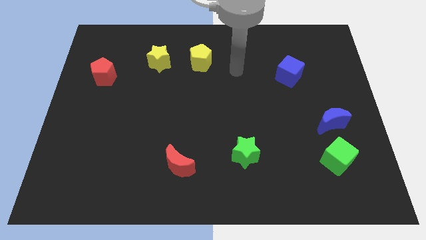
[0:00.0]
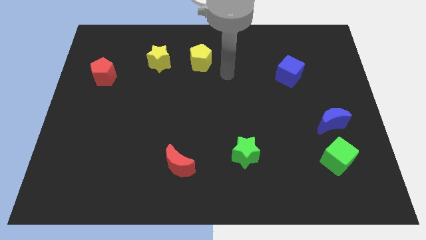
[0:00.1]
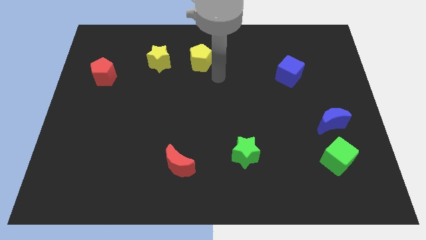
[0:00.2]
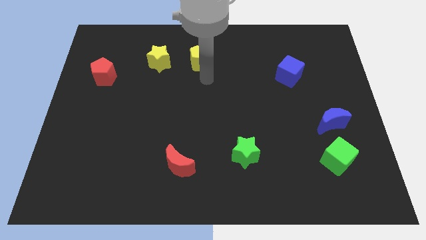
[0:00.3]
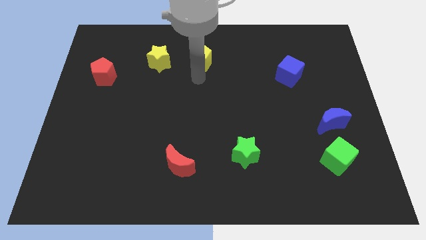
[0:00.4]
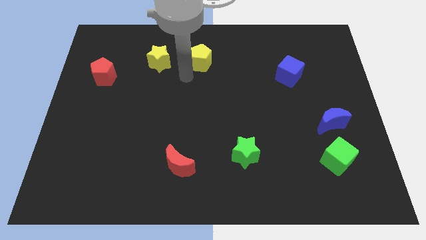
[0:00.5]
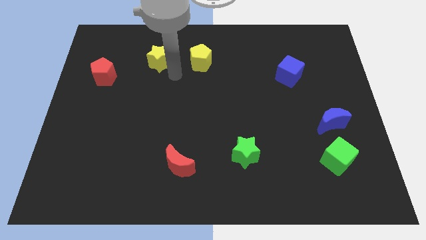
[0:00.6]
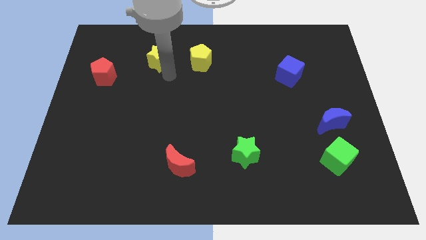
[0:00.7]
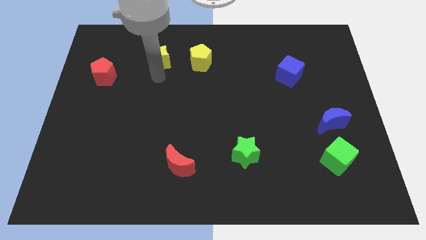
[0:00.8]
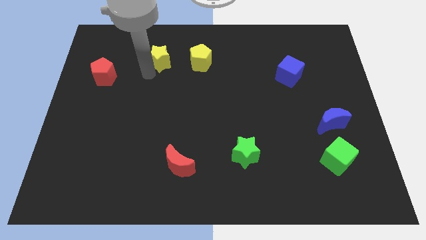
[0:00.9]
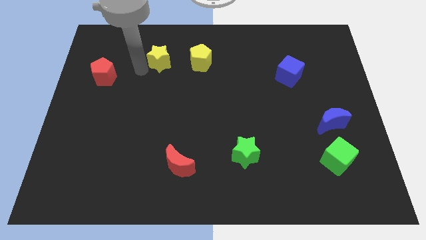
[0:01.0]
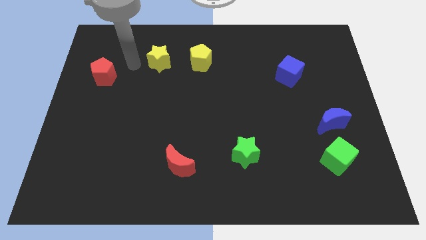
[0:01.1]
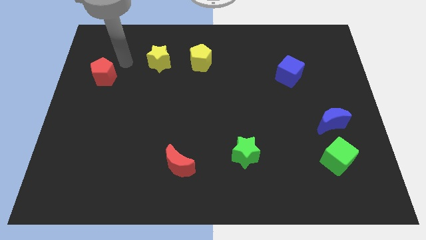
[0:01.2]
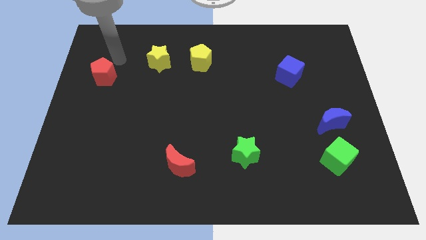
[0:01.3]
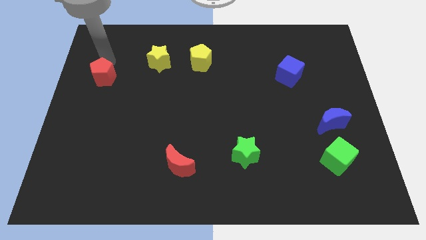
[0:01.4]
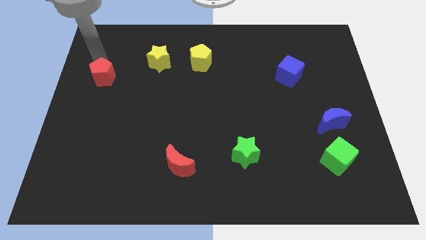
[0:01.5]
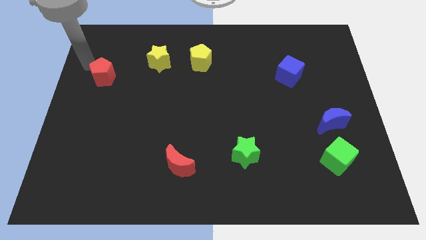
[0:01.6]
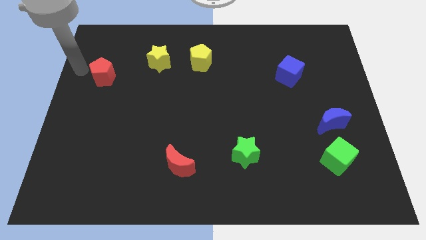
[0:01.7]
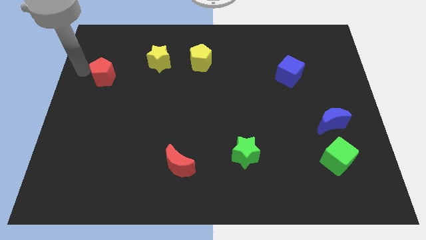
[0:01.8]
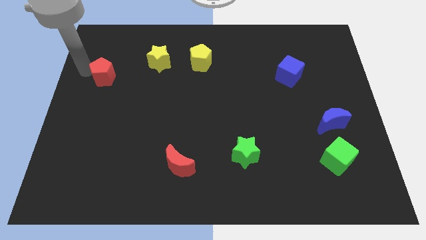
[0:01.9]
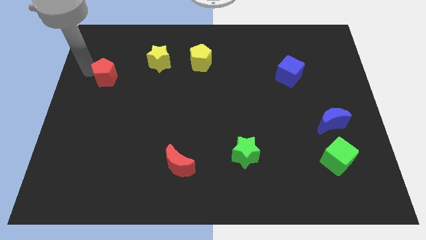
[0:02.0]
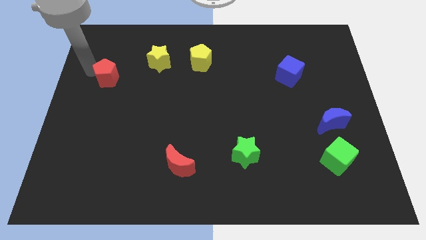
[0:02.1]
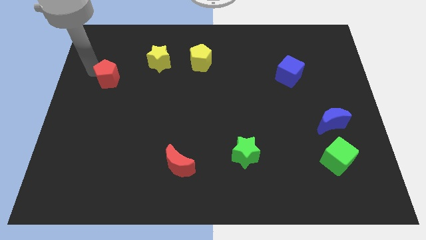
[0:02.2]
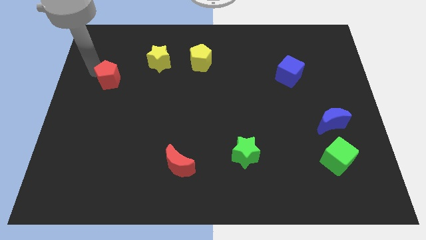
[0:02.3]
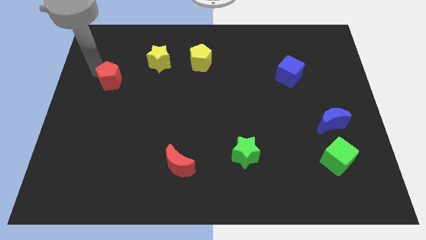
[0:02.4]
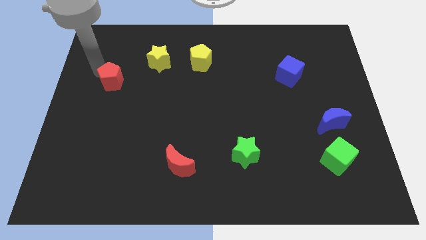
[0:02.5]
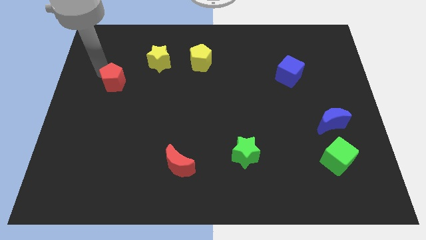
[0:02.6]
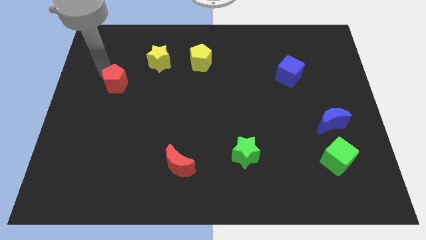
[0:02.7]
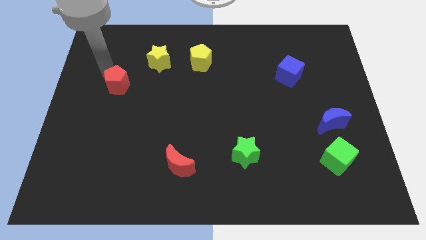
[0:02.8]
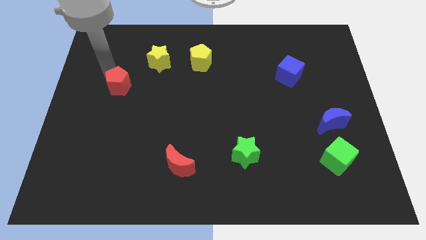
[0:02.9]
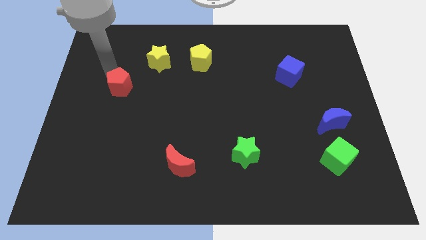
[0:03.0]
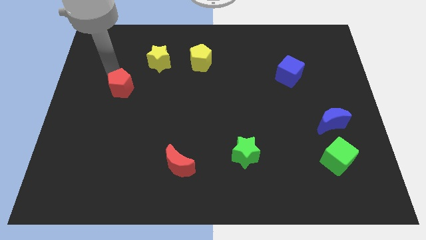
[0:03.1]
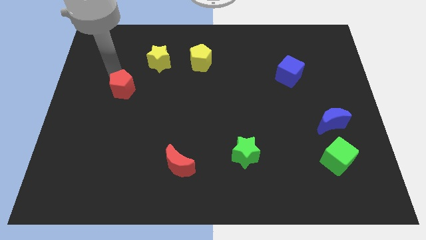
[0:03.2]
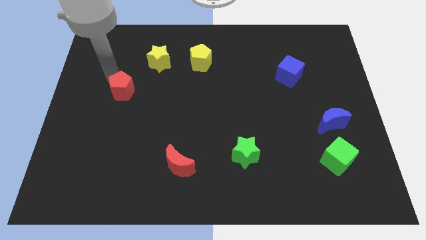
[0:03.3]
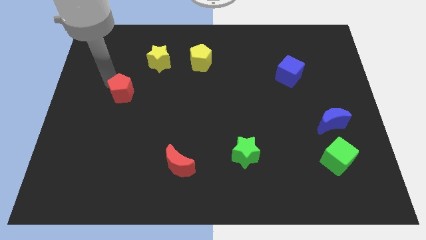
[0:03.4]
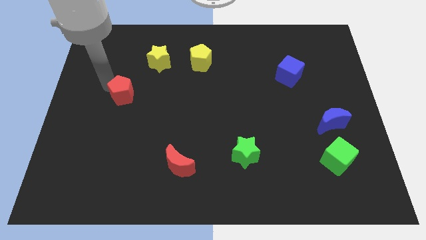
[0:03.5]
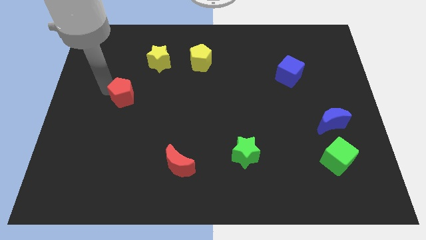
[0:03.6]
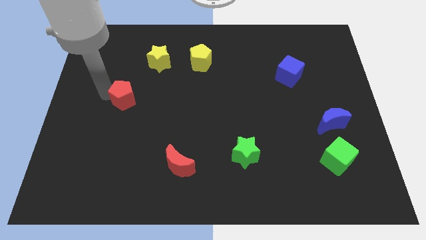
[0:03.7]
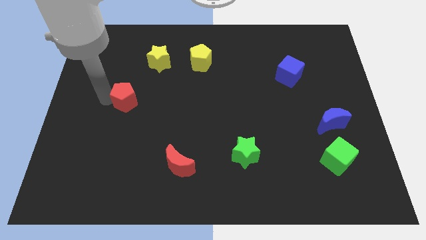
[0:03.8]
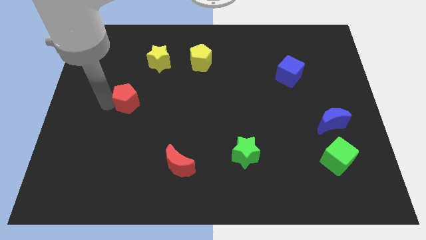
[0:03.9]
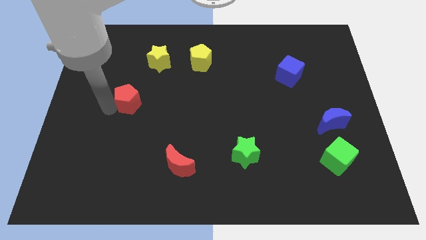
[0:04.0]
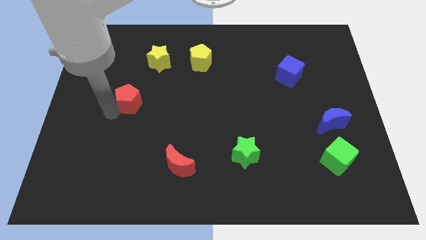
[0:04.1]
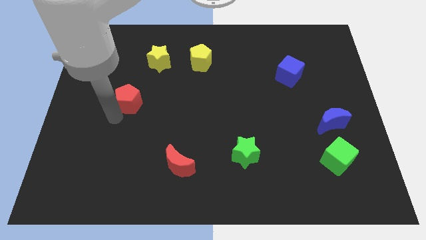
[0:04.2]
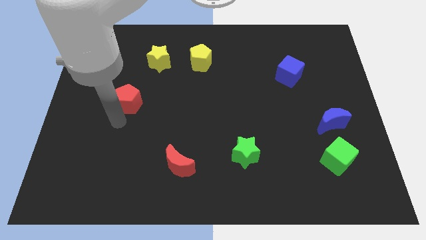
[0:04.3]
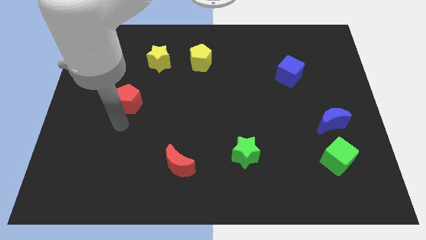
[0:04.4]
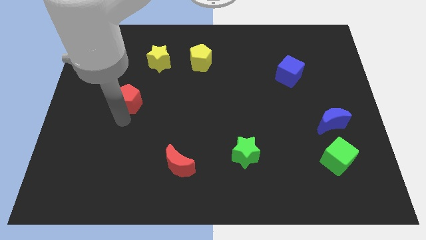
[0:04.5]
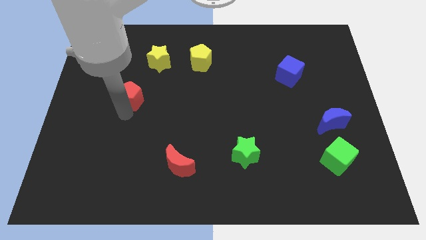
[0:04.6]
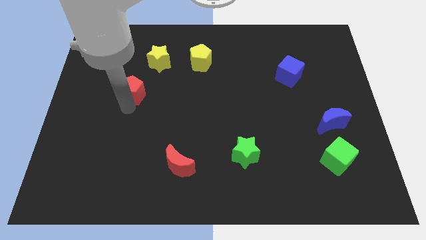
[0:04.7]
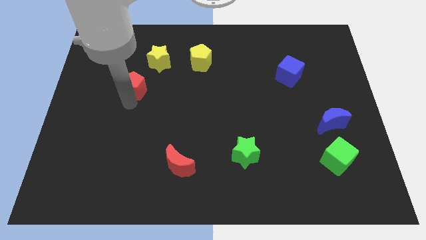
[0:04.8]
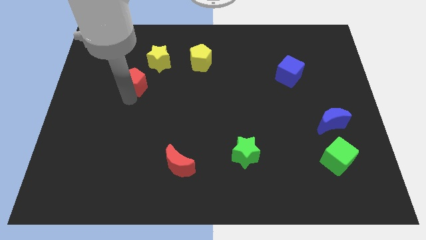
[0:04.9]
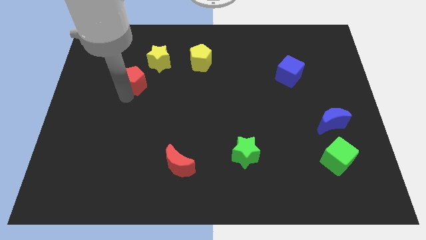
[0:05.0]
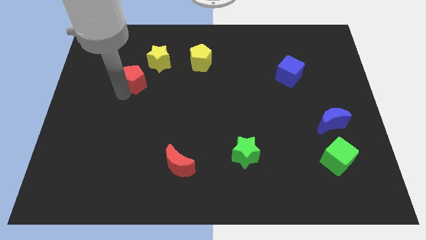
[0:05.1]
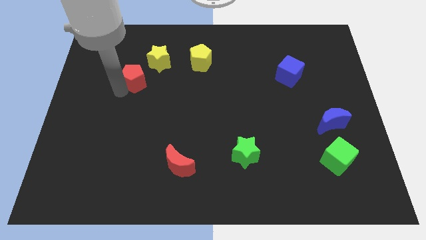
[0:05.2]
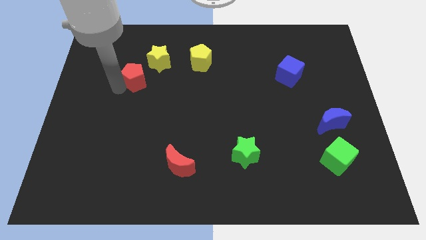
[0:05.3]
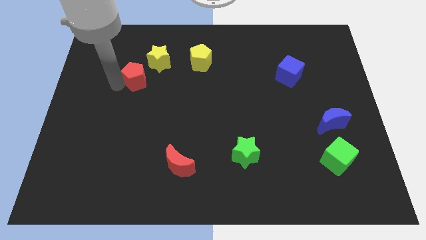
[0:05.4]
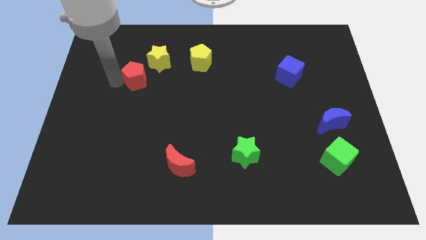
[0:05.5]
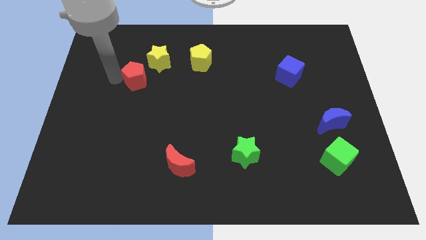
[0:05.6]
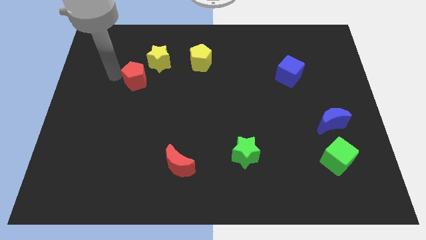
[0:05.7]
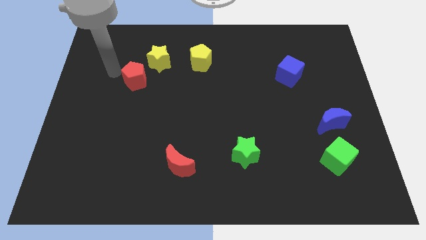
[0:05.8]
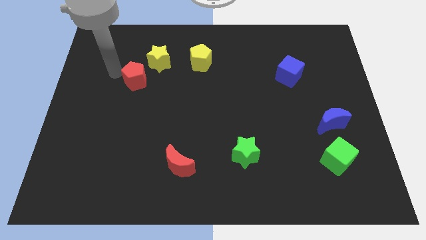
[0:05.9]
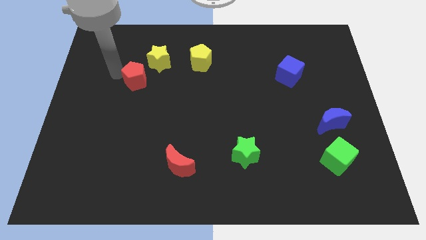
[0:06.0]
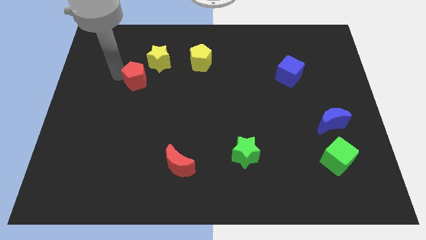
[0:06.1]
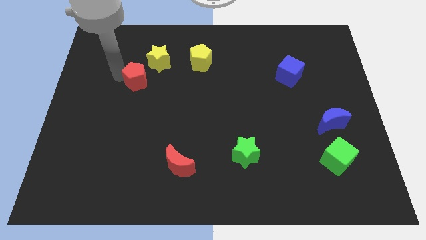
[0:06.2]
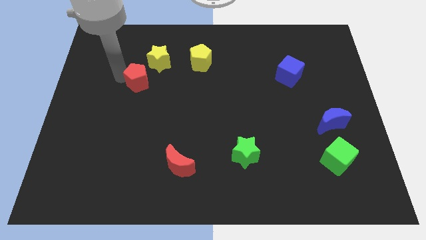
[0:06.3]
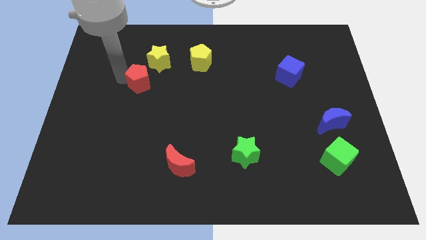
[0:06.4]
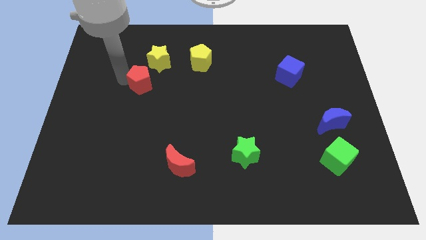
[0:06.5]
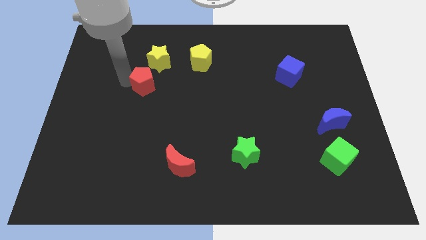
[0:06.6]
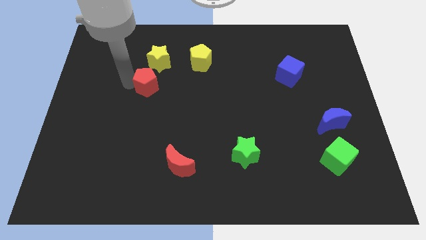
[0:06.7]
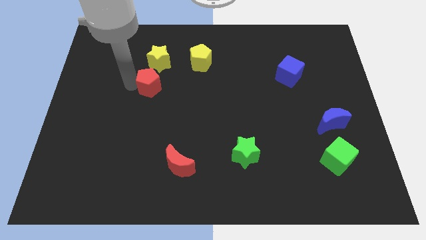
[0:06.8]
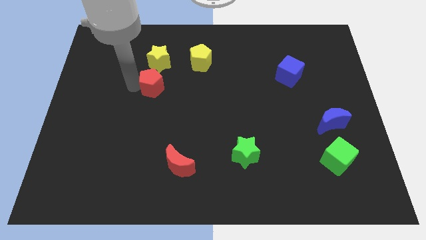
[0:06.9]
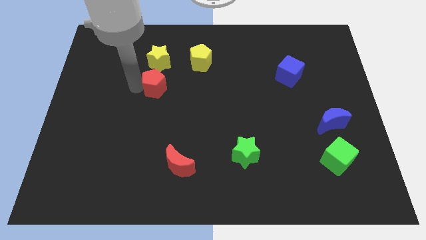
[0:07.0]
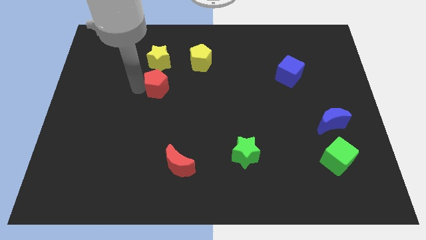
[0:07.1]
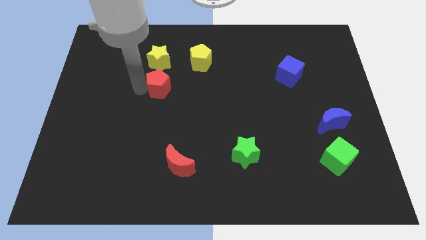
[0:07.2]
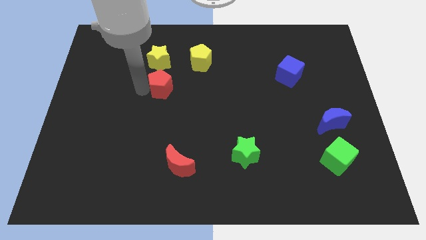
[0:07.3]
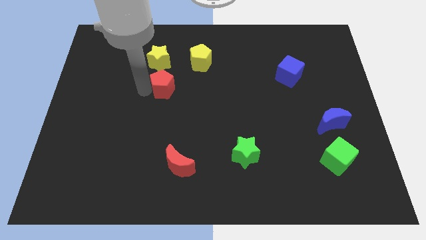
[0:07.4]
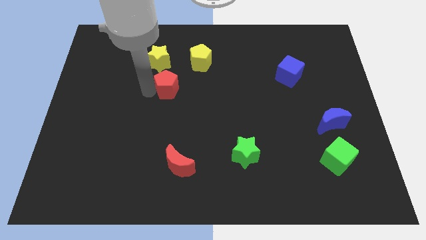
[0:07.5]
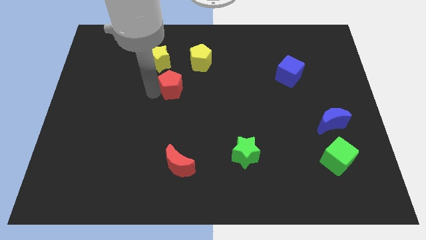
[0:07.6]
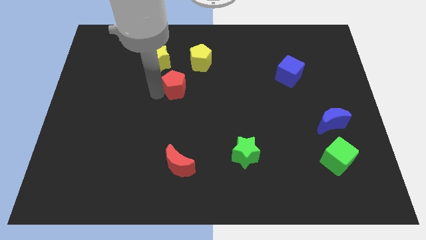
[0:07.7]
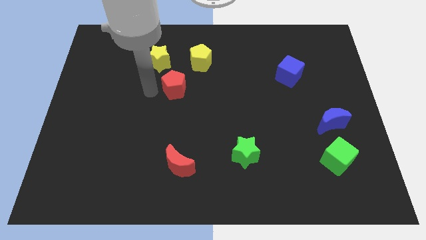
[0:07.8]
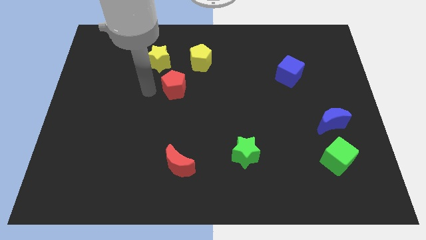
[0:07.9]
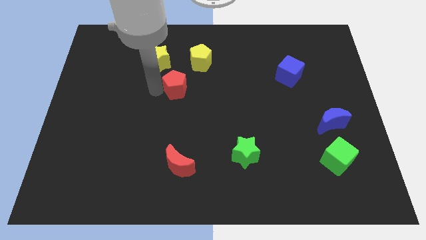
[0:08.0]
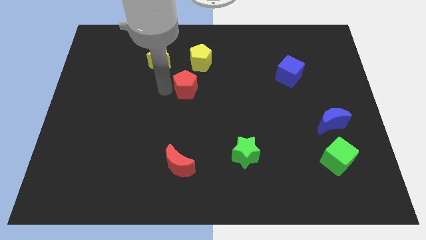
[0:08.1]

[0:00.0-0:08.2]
push the red pentagon to the right
